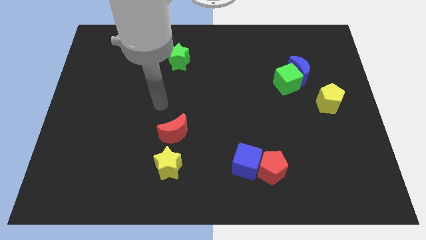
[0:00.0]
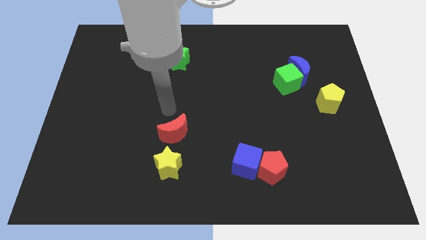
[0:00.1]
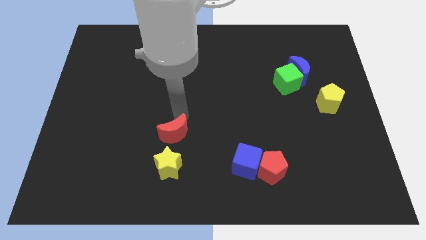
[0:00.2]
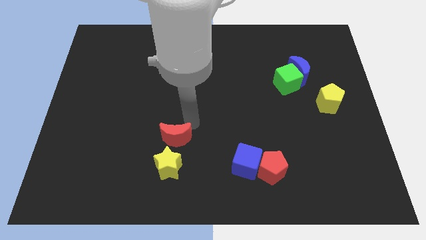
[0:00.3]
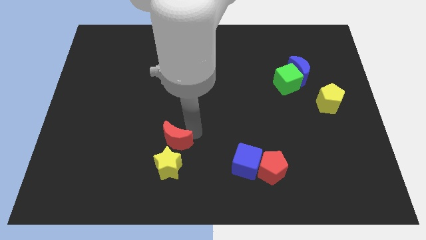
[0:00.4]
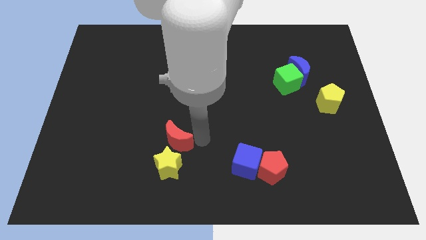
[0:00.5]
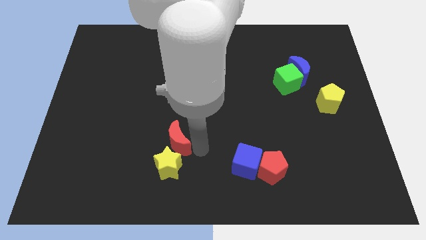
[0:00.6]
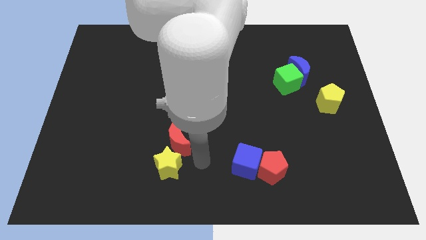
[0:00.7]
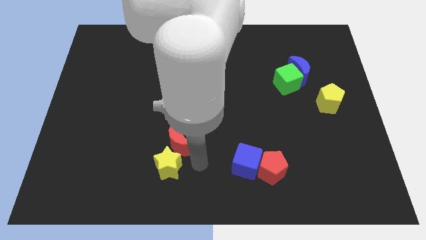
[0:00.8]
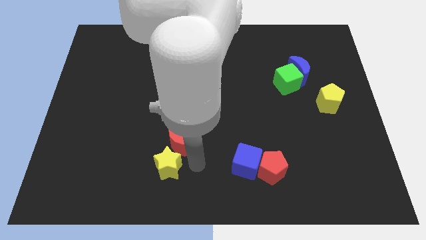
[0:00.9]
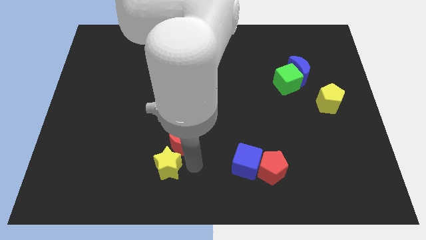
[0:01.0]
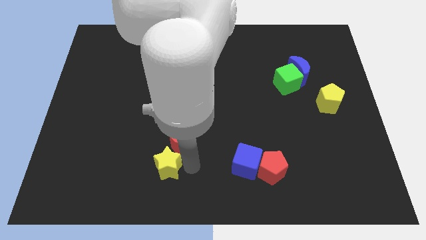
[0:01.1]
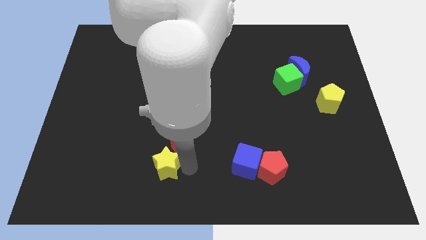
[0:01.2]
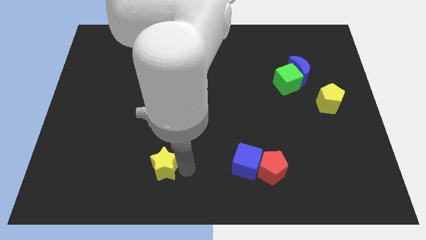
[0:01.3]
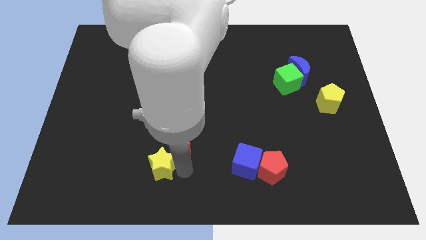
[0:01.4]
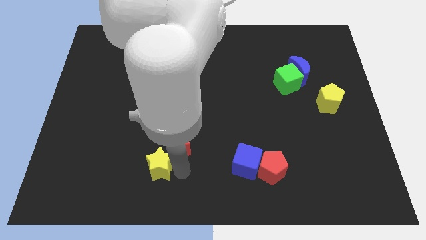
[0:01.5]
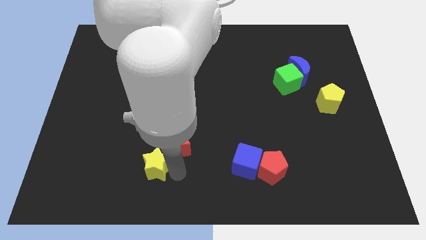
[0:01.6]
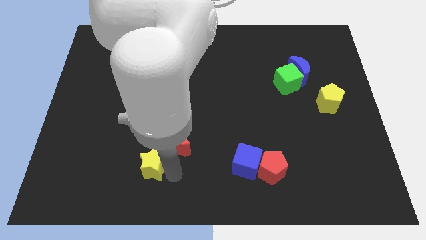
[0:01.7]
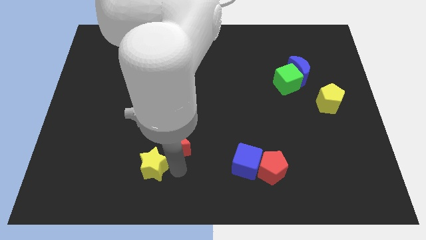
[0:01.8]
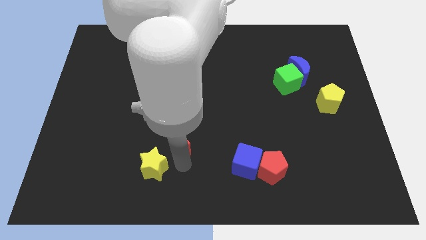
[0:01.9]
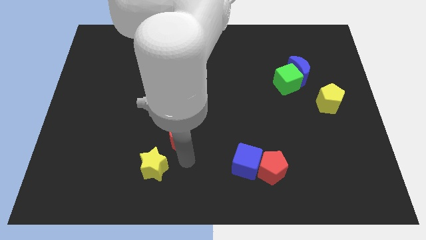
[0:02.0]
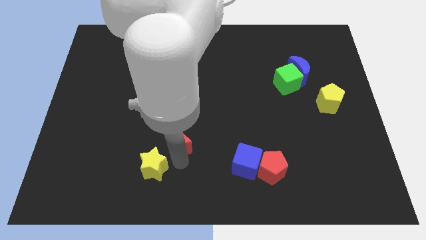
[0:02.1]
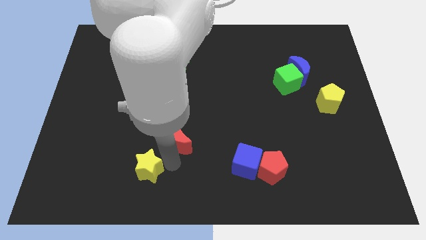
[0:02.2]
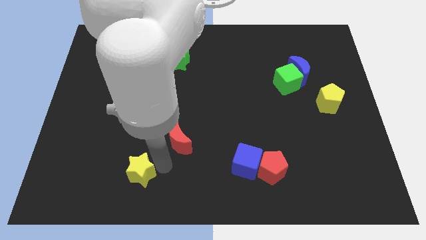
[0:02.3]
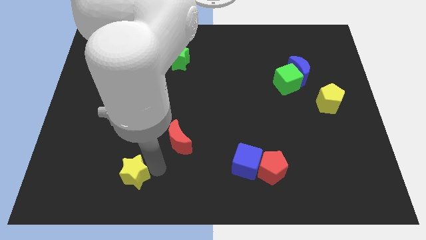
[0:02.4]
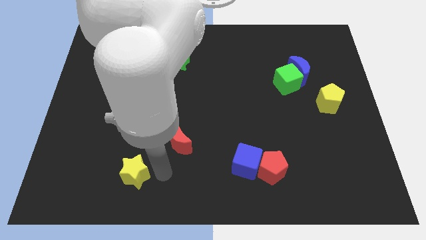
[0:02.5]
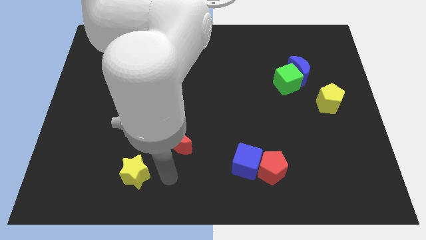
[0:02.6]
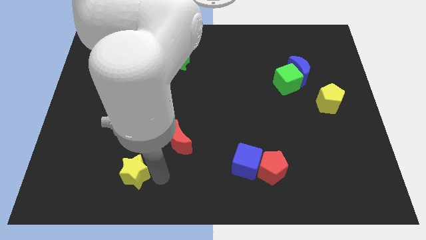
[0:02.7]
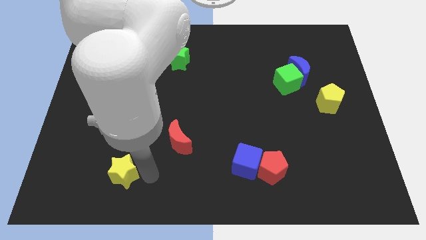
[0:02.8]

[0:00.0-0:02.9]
slightly push the yellow star to the left

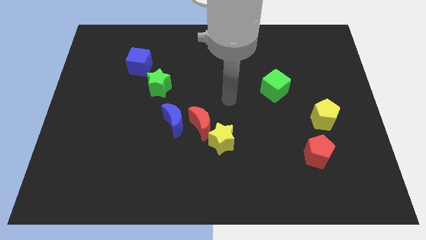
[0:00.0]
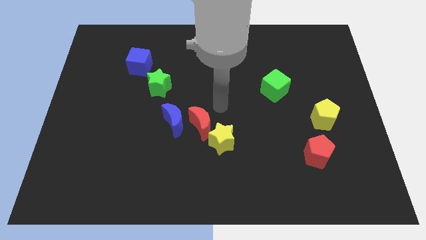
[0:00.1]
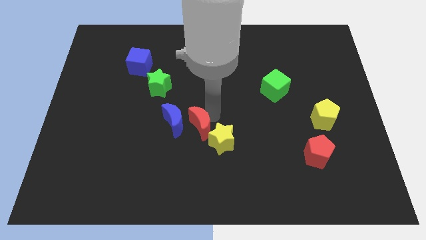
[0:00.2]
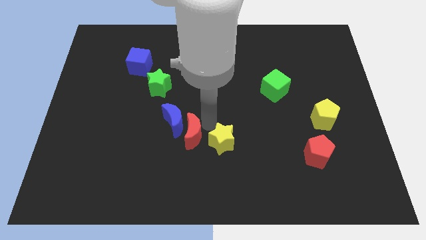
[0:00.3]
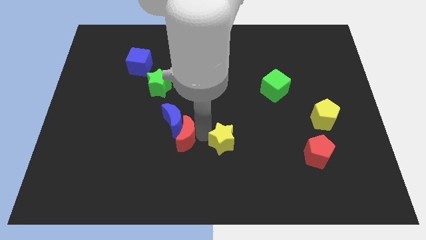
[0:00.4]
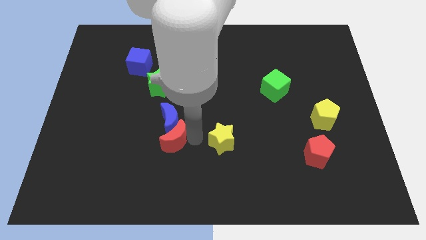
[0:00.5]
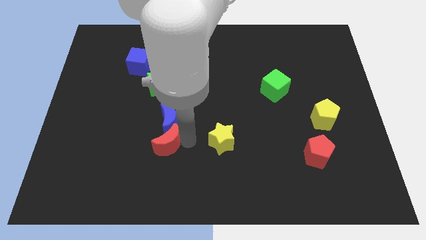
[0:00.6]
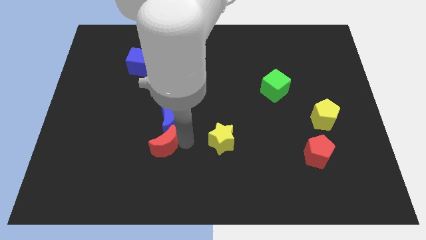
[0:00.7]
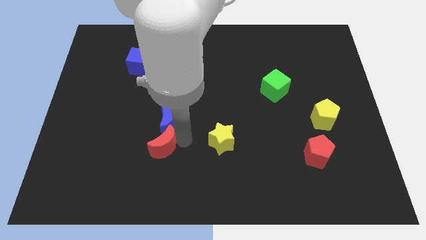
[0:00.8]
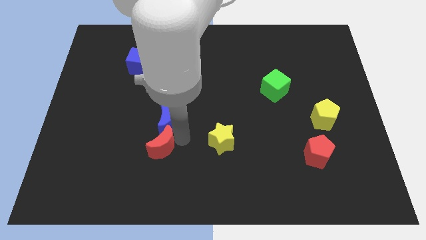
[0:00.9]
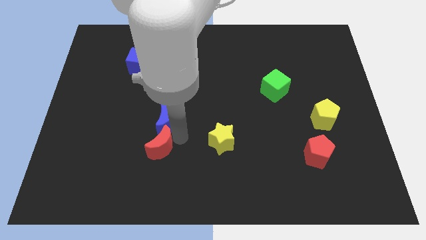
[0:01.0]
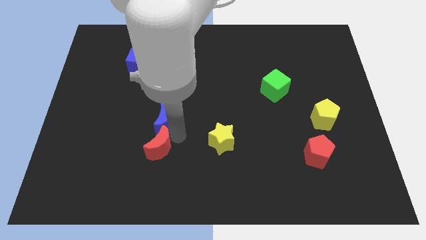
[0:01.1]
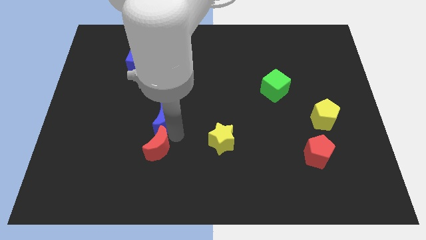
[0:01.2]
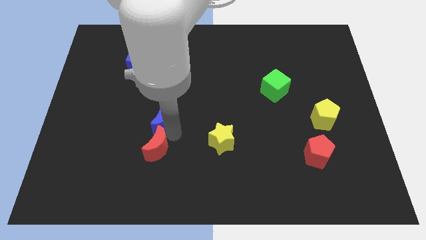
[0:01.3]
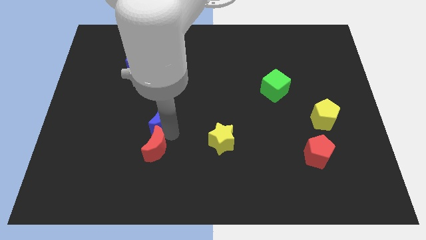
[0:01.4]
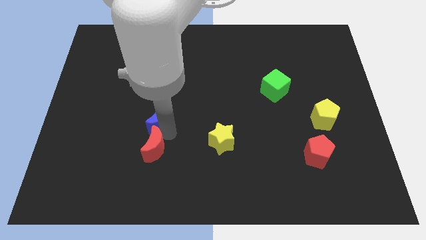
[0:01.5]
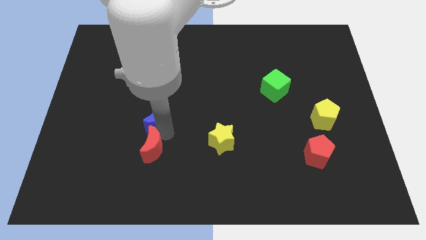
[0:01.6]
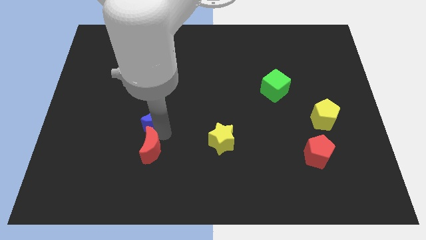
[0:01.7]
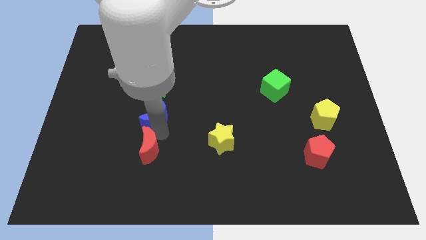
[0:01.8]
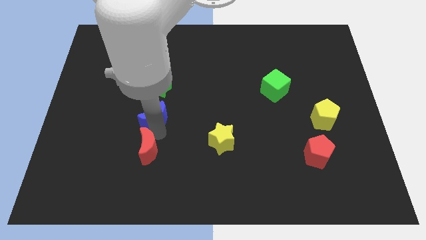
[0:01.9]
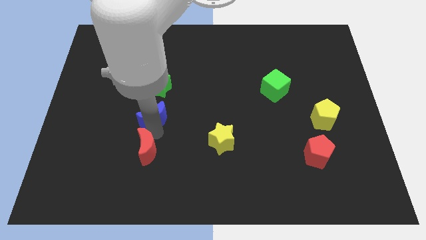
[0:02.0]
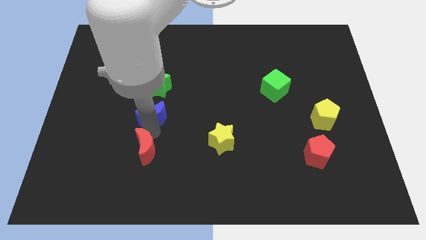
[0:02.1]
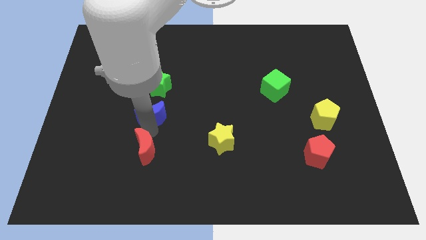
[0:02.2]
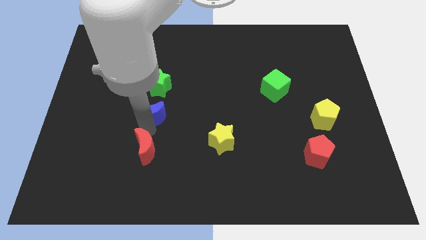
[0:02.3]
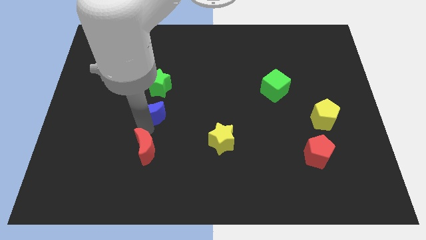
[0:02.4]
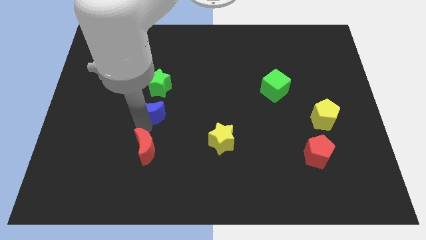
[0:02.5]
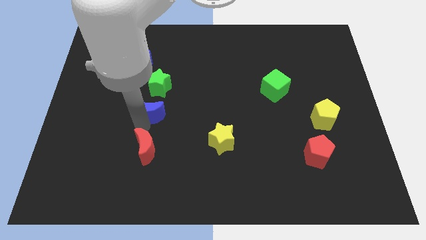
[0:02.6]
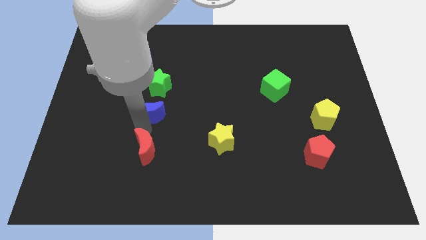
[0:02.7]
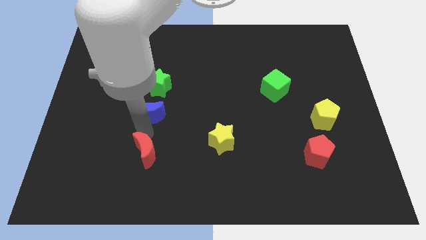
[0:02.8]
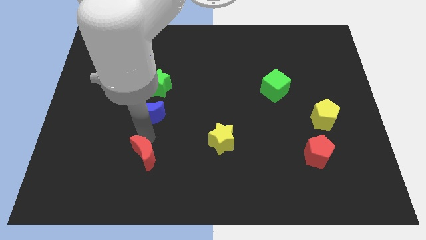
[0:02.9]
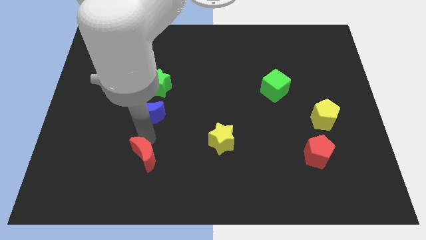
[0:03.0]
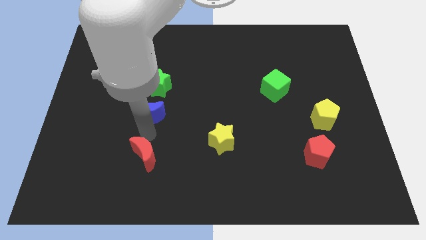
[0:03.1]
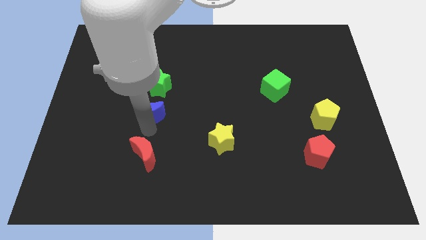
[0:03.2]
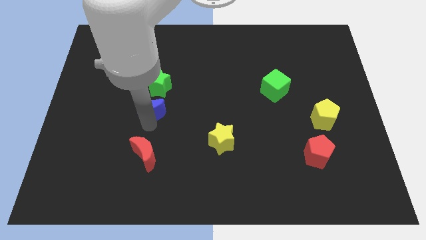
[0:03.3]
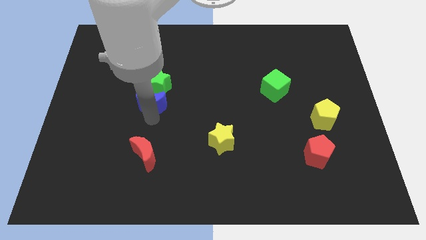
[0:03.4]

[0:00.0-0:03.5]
move the blue moon somewhat upwards and then left

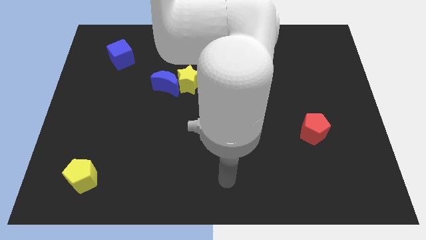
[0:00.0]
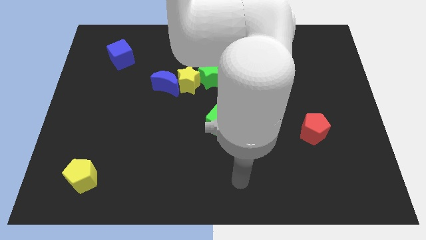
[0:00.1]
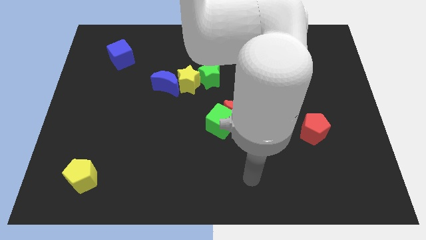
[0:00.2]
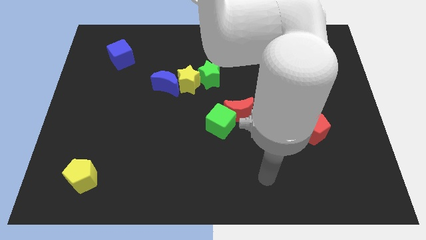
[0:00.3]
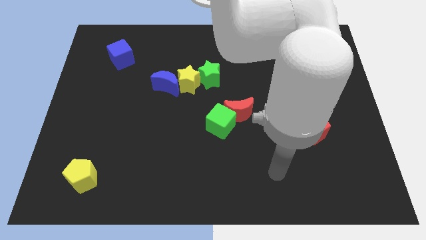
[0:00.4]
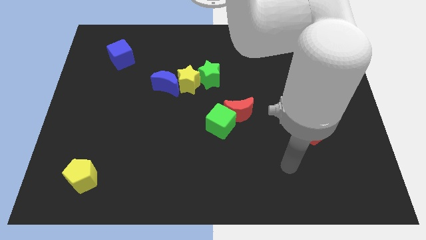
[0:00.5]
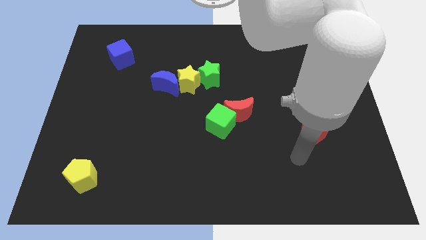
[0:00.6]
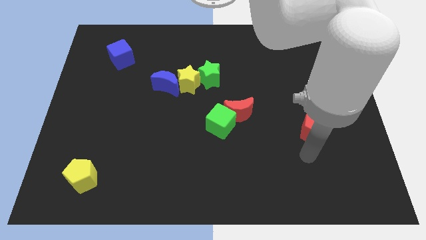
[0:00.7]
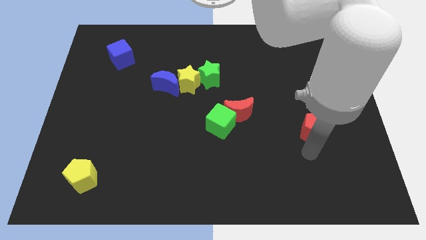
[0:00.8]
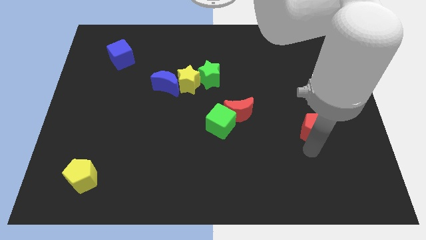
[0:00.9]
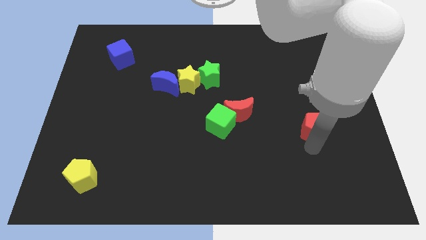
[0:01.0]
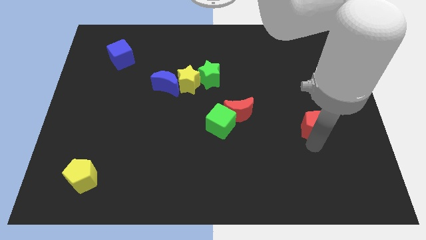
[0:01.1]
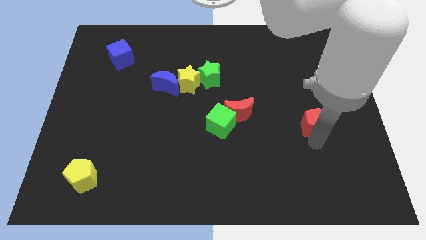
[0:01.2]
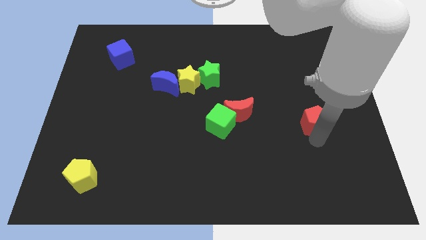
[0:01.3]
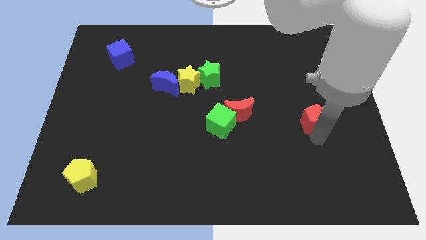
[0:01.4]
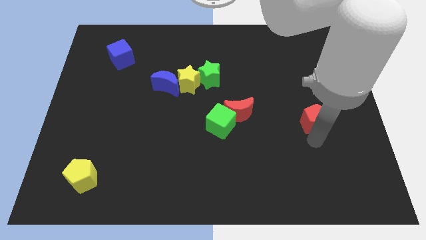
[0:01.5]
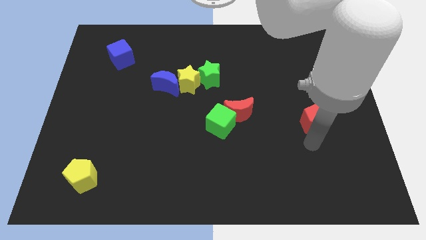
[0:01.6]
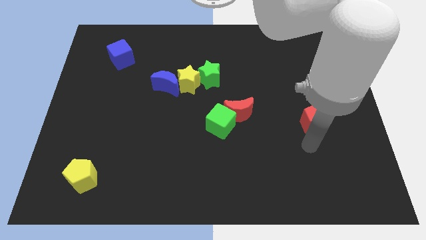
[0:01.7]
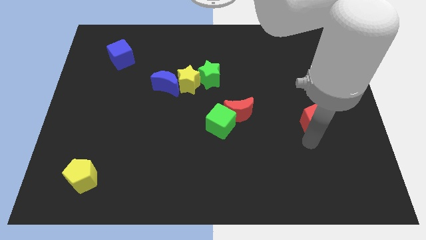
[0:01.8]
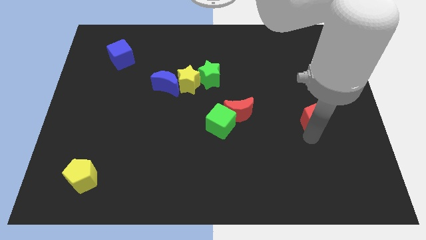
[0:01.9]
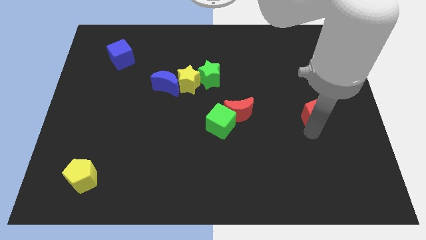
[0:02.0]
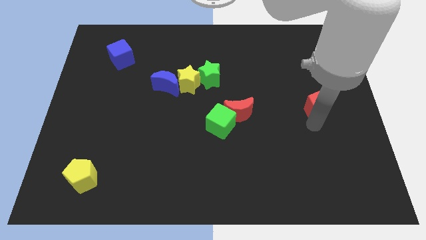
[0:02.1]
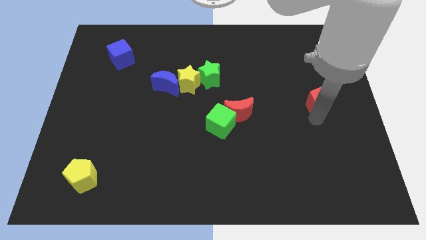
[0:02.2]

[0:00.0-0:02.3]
push the red pentagon a little bit upwards
